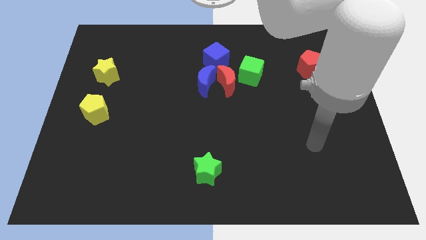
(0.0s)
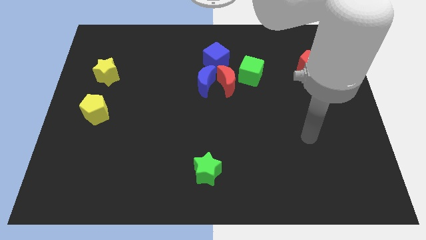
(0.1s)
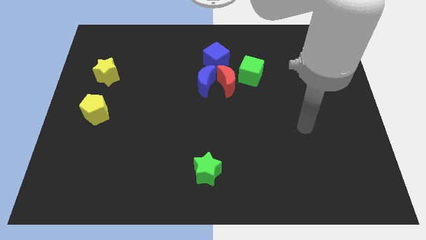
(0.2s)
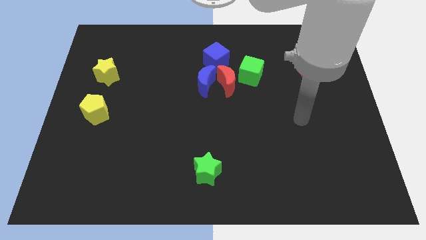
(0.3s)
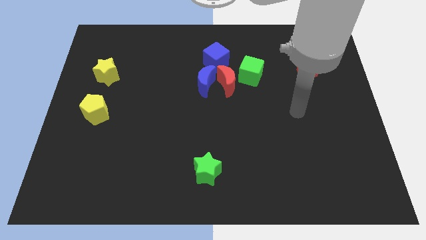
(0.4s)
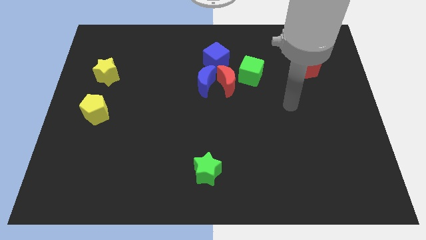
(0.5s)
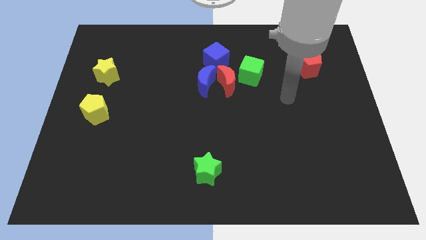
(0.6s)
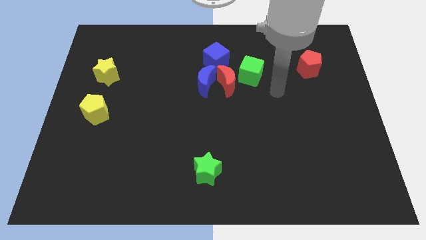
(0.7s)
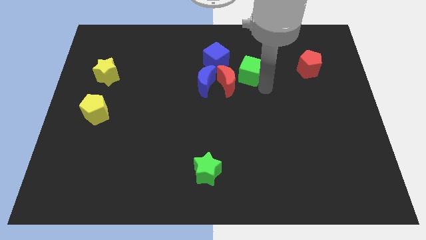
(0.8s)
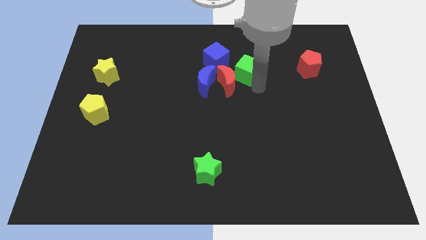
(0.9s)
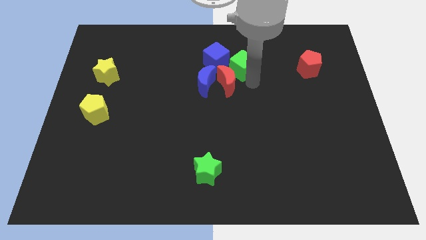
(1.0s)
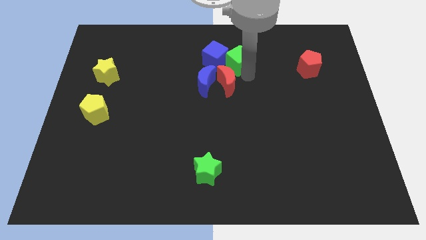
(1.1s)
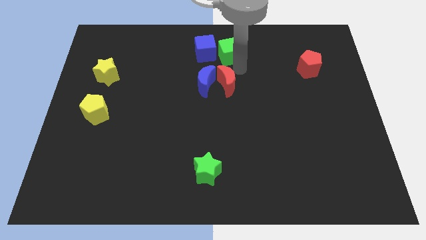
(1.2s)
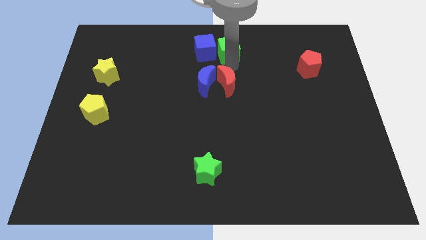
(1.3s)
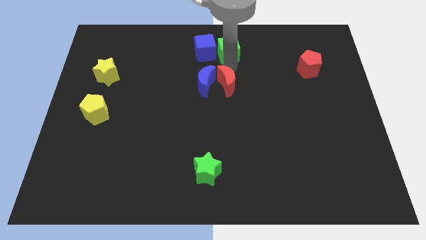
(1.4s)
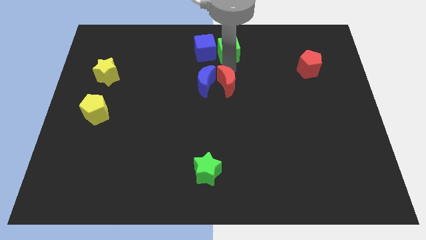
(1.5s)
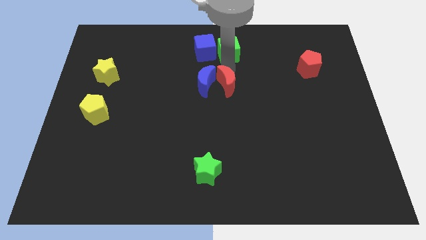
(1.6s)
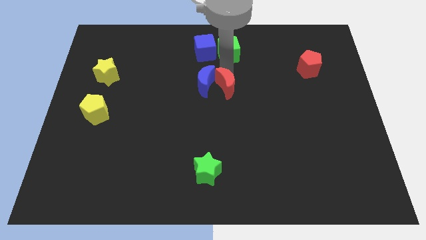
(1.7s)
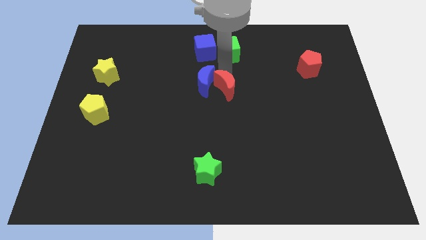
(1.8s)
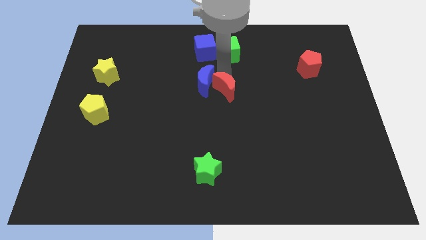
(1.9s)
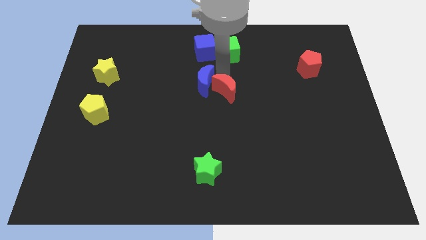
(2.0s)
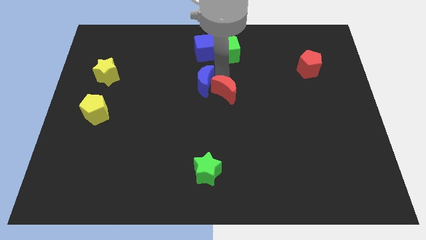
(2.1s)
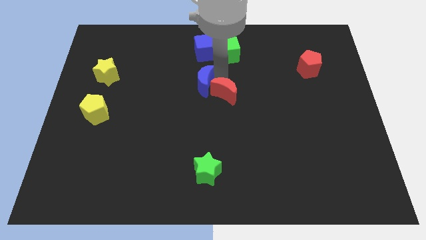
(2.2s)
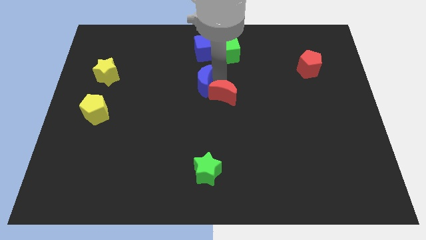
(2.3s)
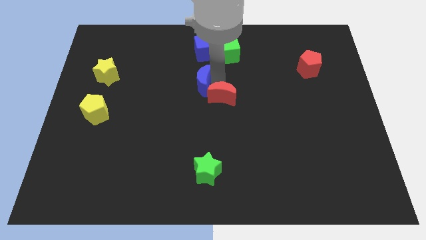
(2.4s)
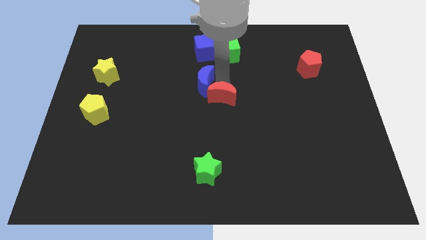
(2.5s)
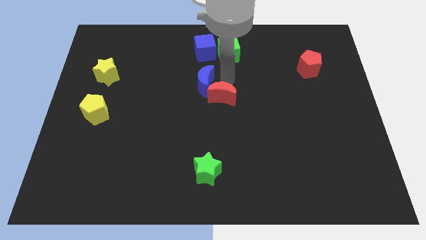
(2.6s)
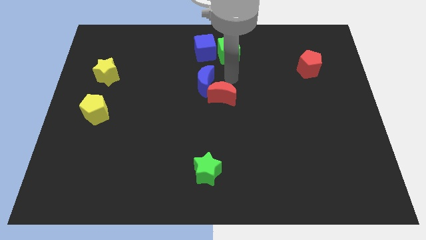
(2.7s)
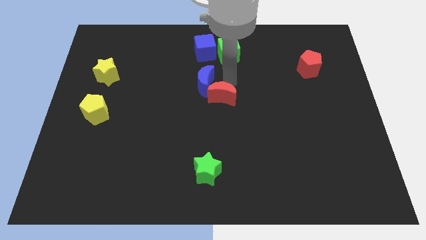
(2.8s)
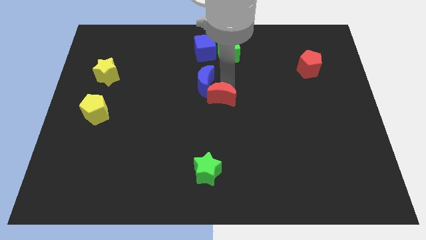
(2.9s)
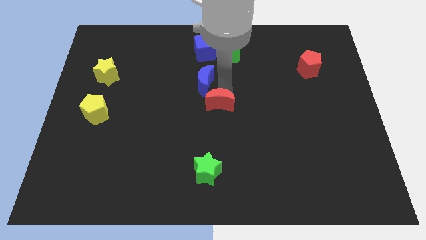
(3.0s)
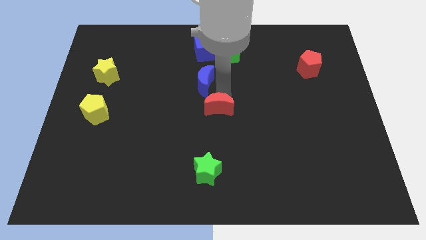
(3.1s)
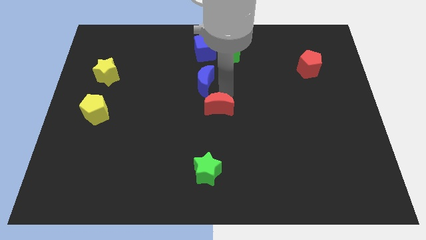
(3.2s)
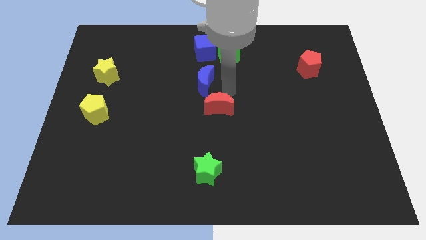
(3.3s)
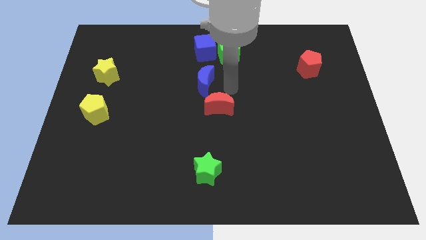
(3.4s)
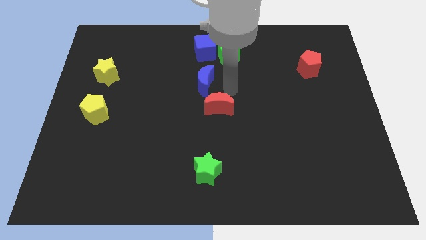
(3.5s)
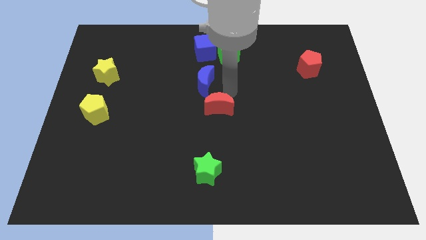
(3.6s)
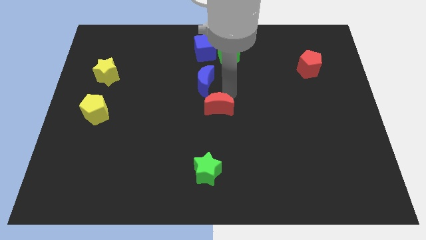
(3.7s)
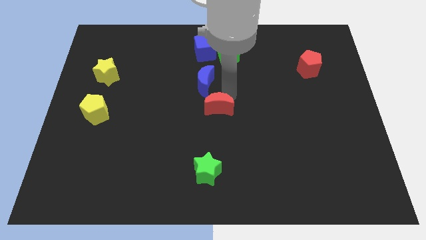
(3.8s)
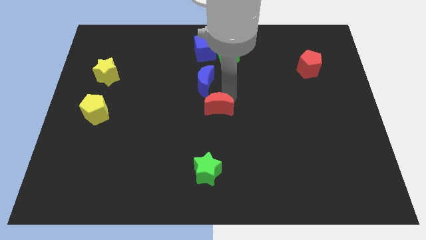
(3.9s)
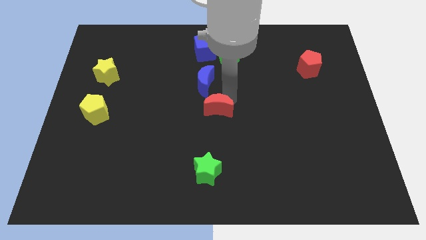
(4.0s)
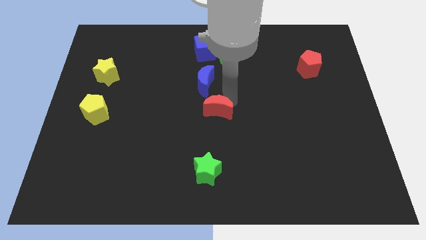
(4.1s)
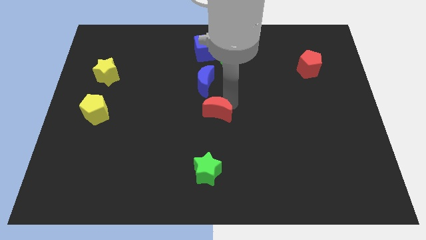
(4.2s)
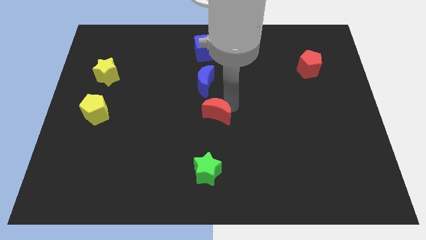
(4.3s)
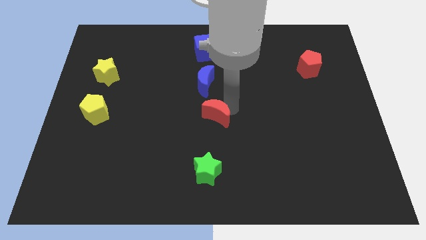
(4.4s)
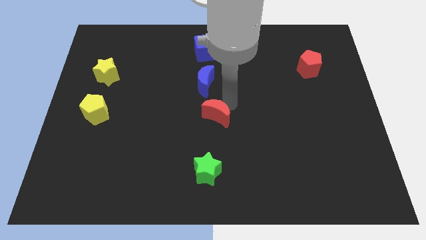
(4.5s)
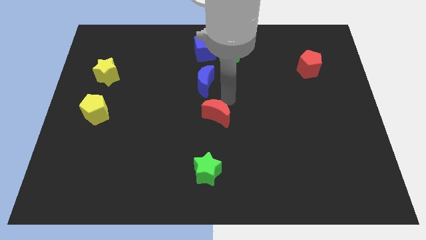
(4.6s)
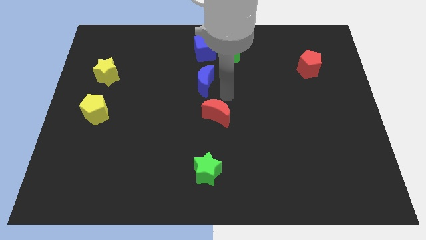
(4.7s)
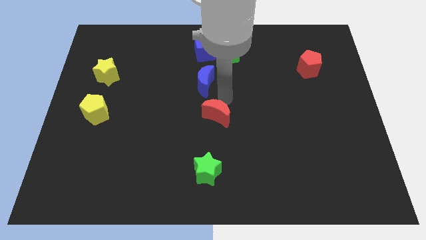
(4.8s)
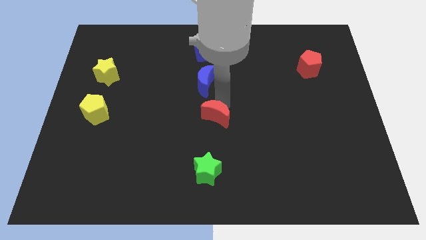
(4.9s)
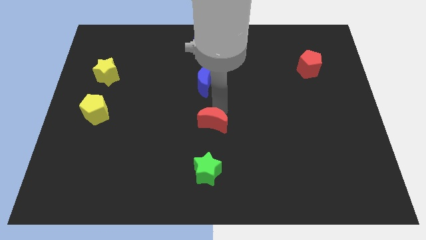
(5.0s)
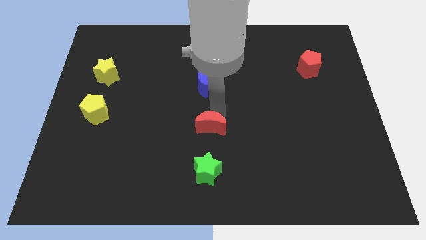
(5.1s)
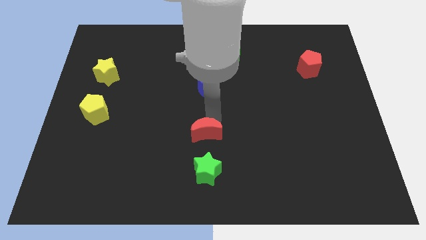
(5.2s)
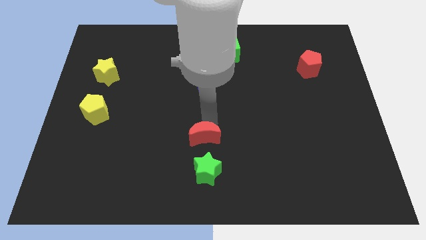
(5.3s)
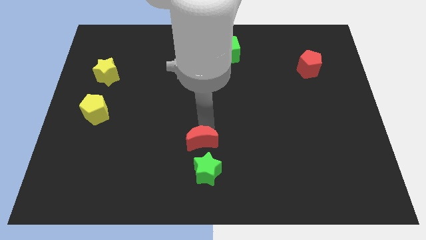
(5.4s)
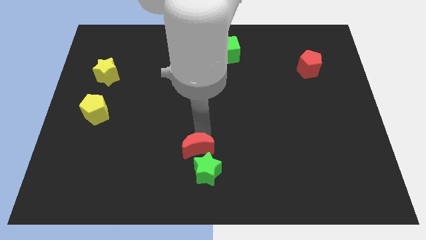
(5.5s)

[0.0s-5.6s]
slide the red moon towards the green star

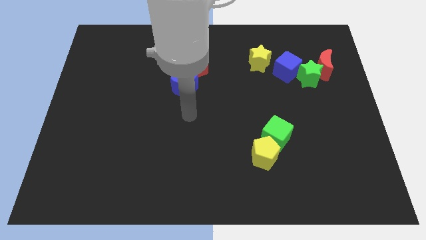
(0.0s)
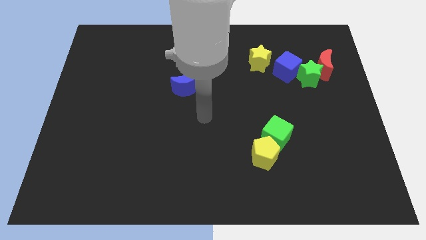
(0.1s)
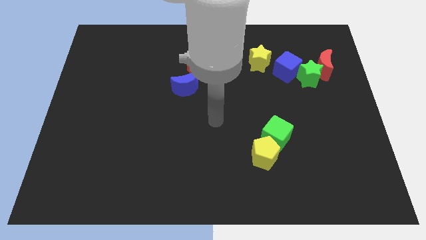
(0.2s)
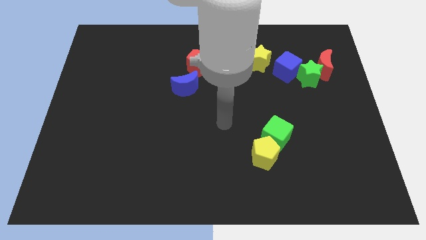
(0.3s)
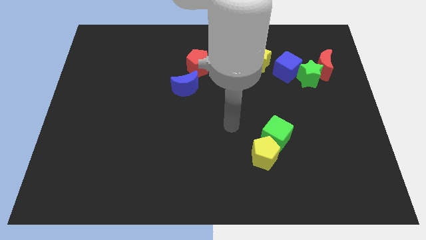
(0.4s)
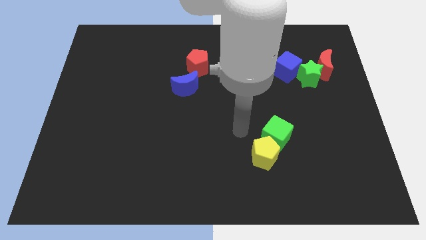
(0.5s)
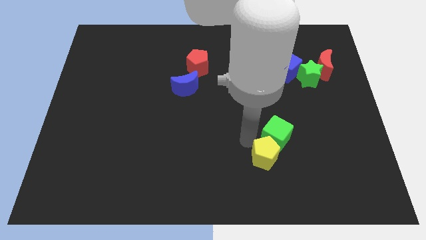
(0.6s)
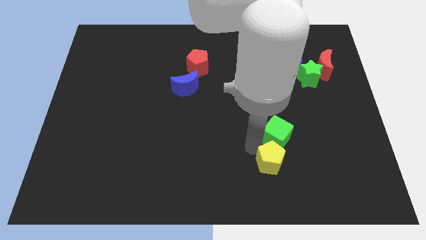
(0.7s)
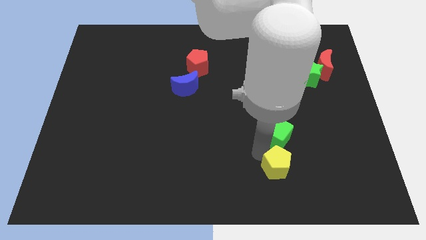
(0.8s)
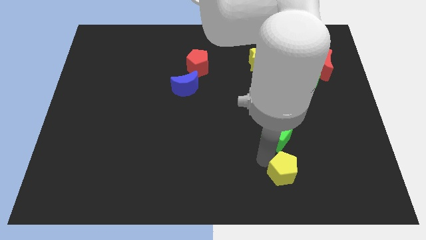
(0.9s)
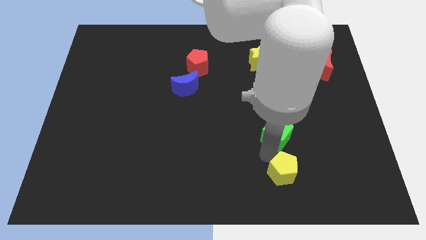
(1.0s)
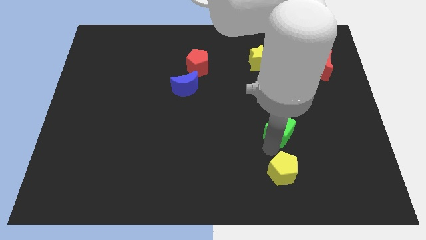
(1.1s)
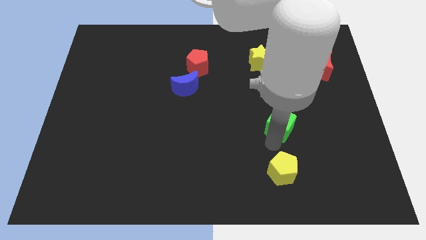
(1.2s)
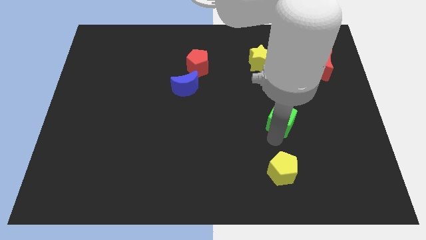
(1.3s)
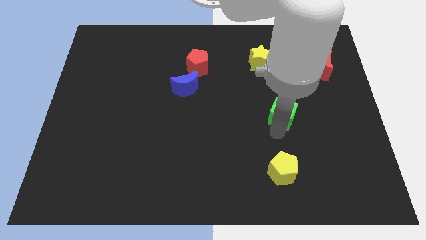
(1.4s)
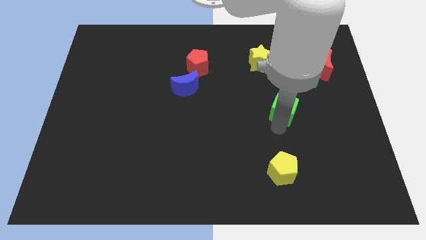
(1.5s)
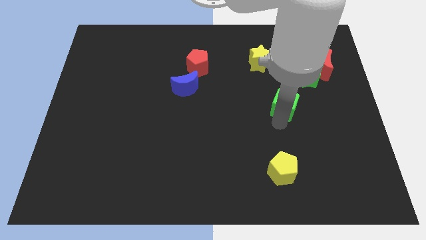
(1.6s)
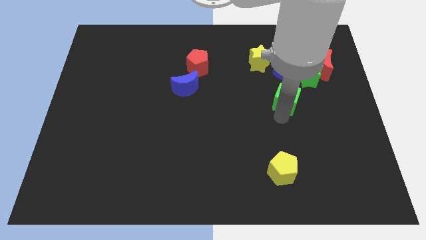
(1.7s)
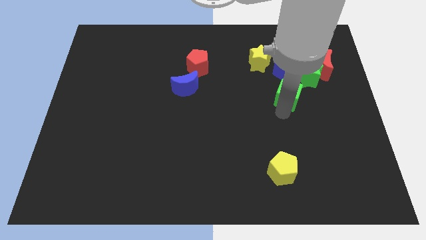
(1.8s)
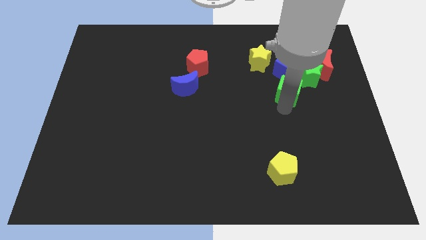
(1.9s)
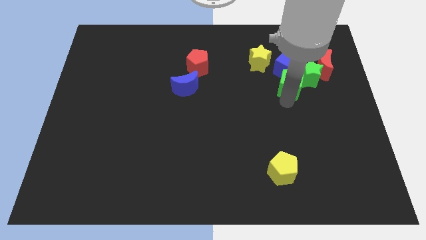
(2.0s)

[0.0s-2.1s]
move the green cube next to the blue cube
